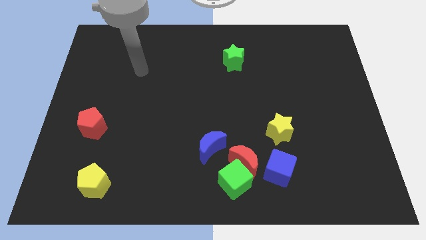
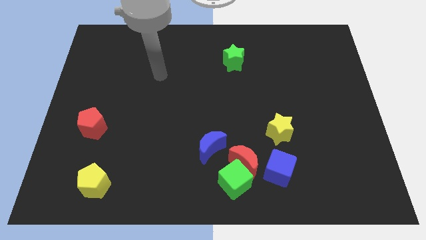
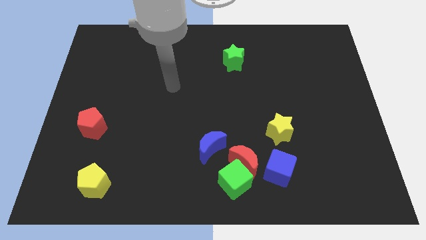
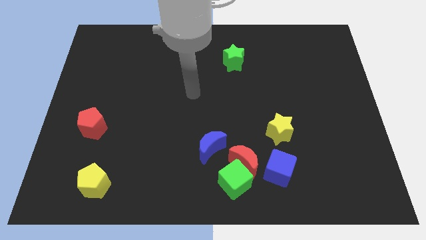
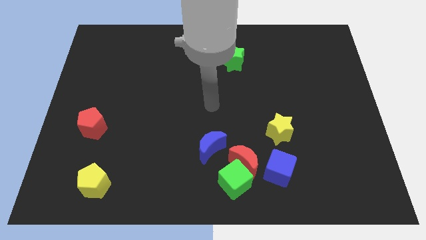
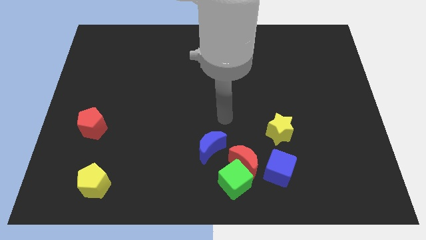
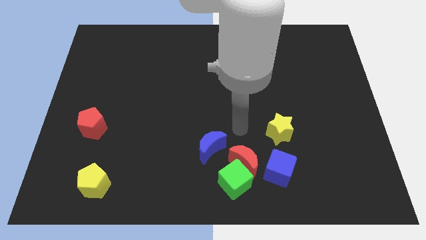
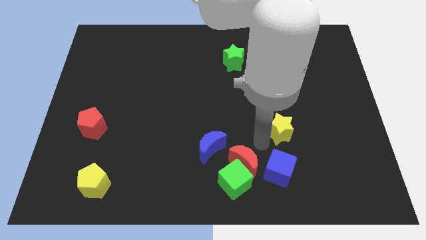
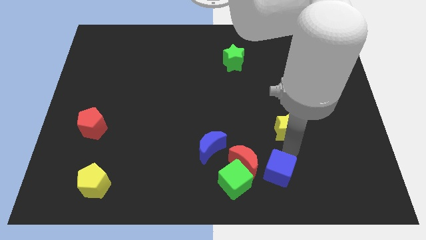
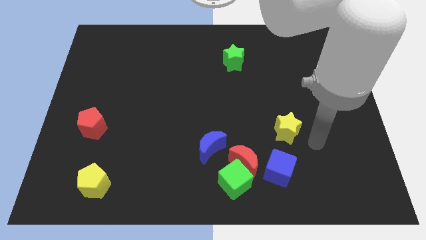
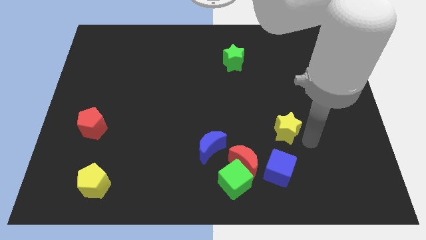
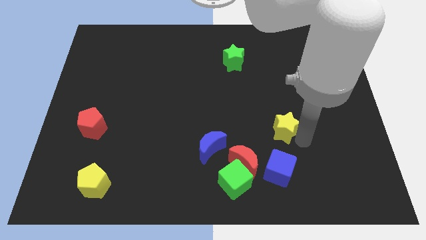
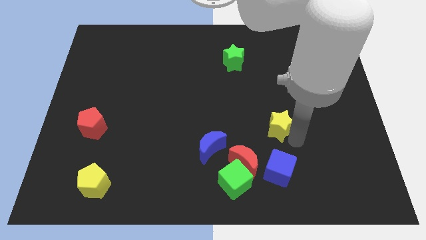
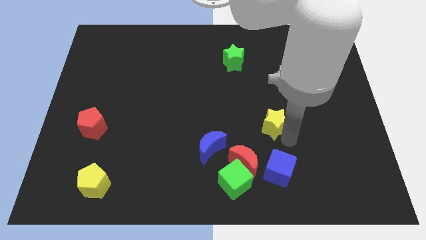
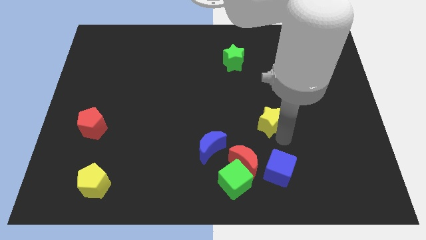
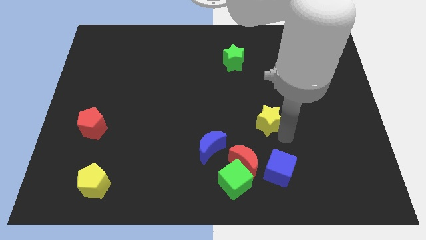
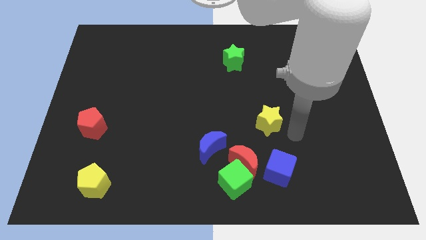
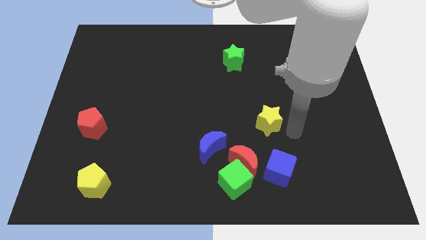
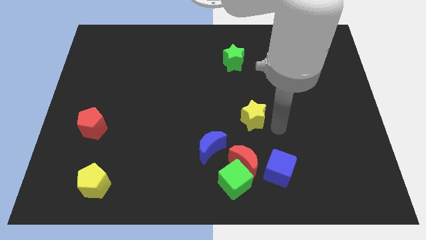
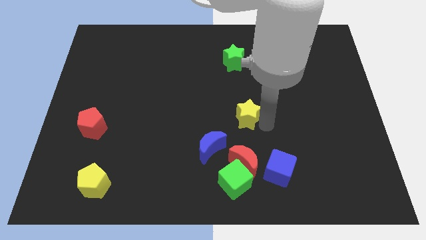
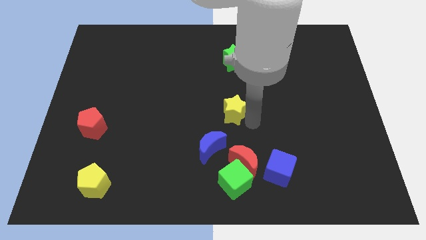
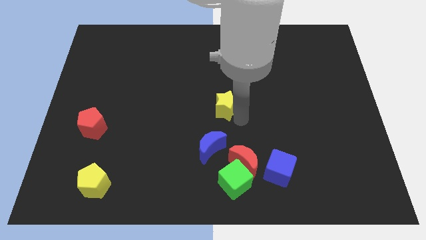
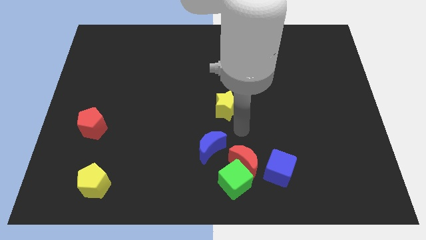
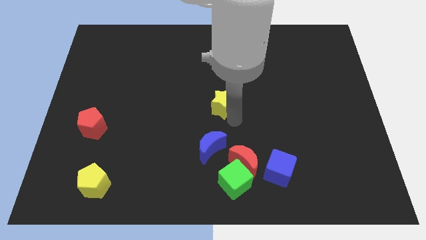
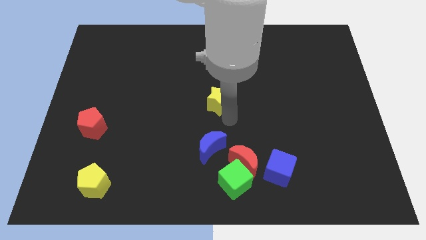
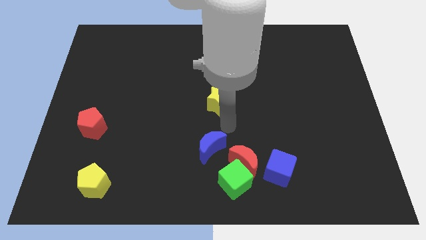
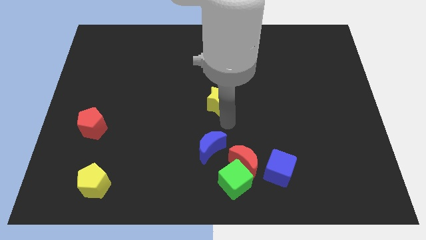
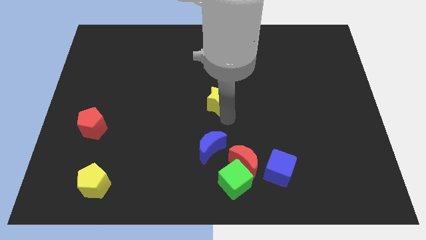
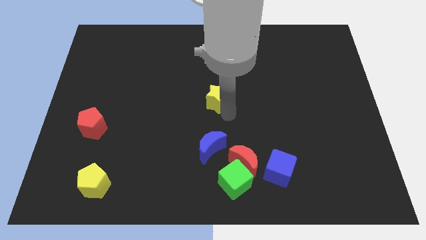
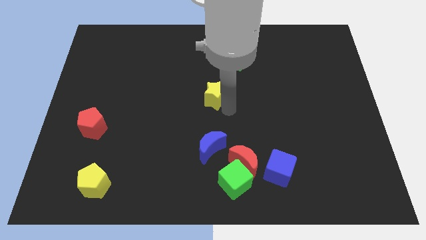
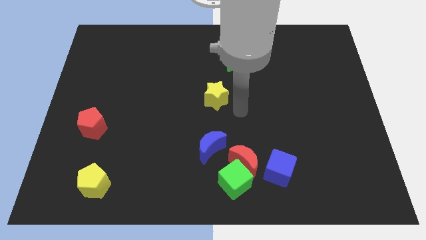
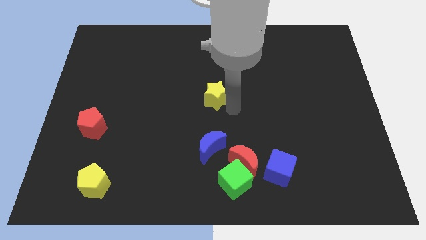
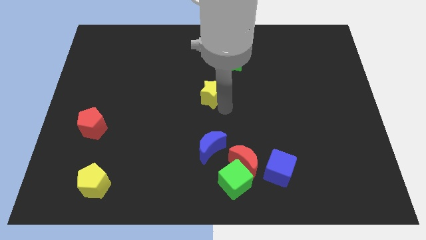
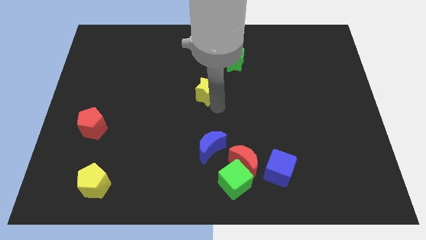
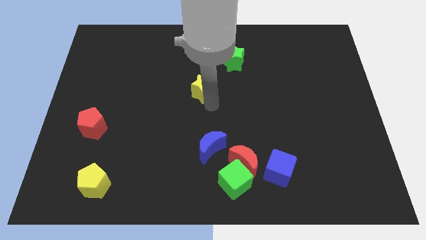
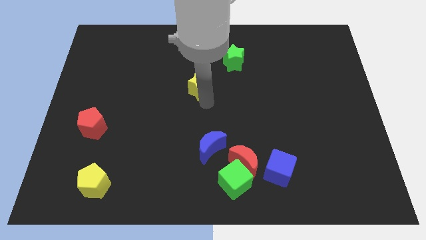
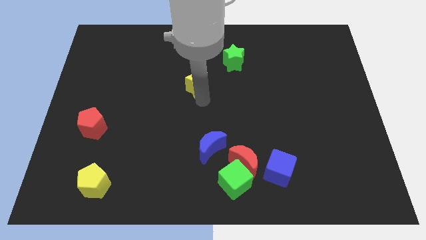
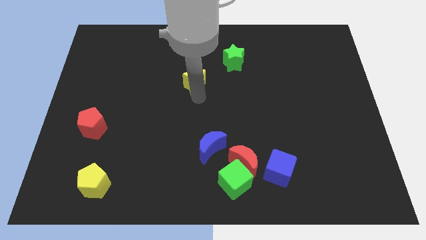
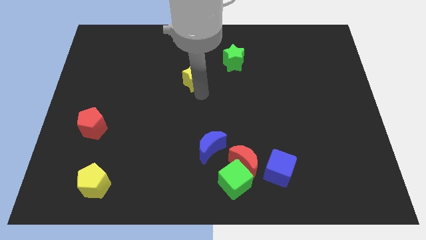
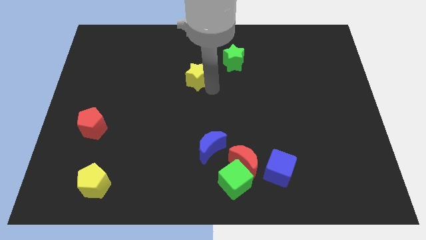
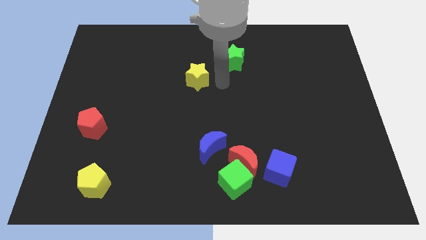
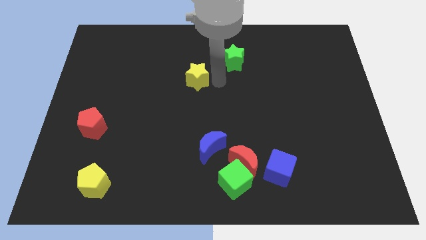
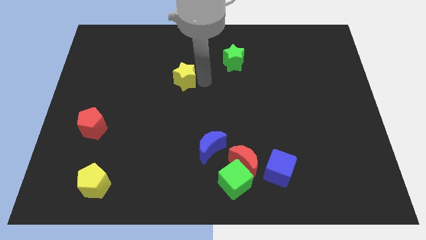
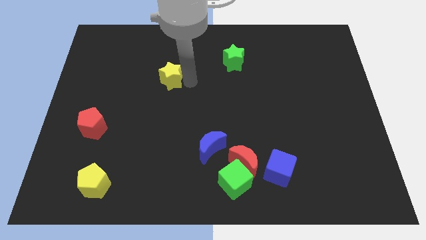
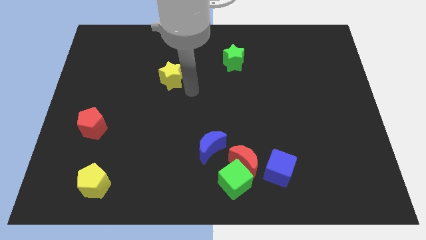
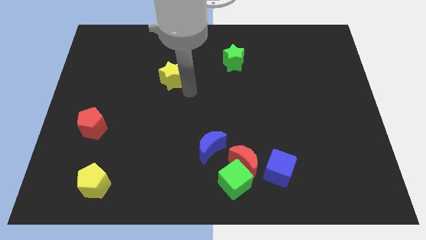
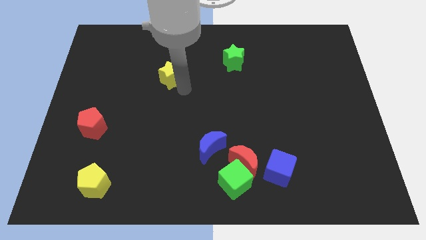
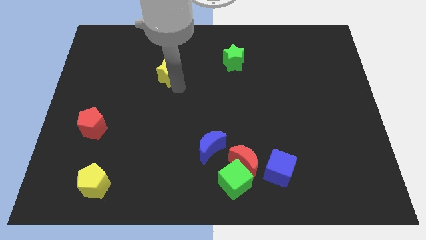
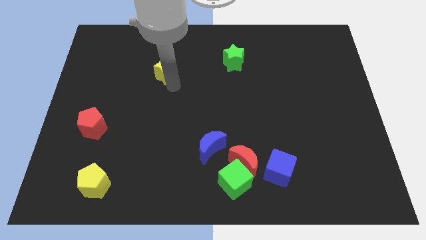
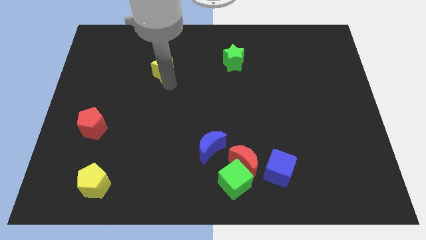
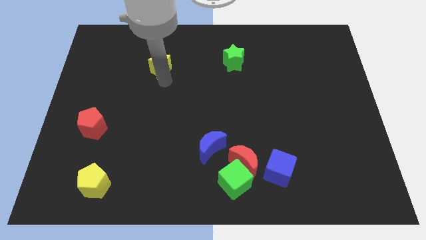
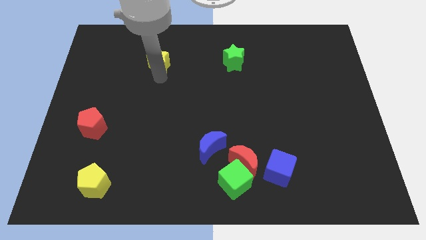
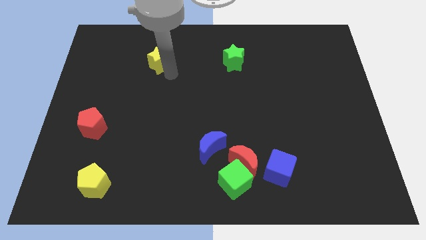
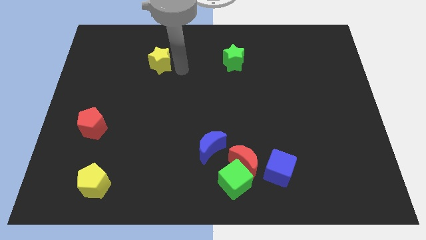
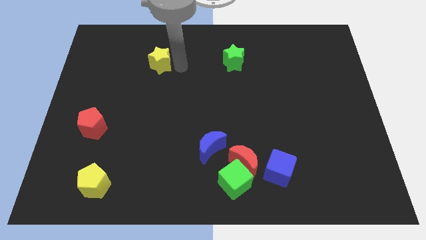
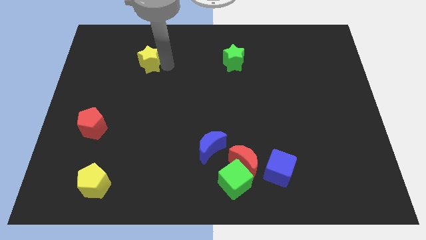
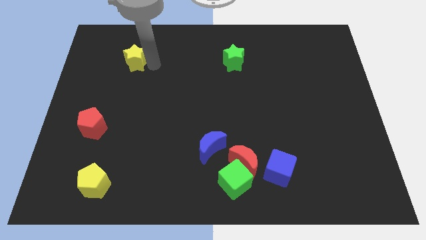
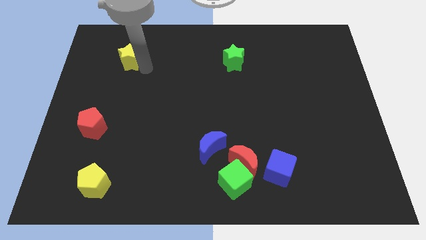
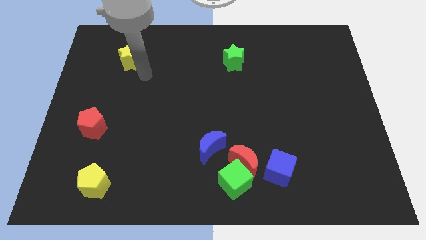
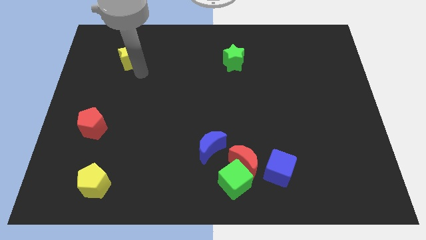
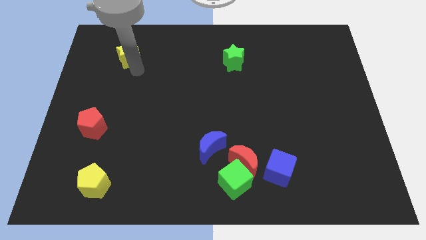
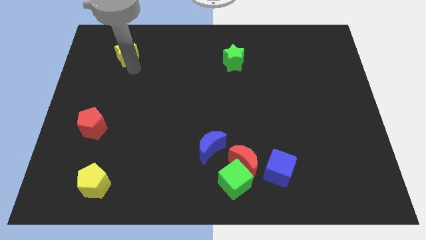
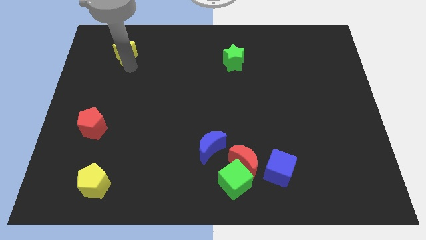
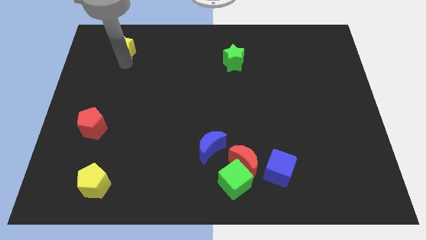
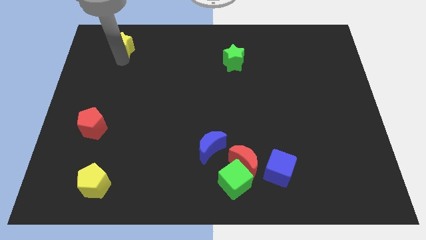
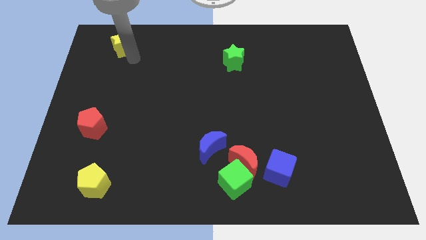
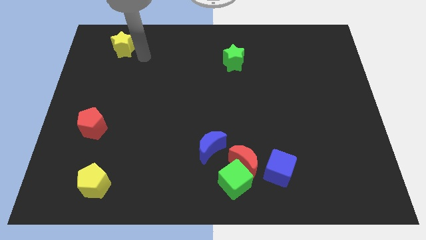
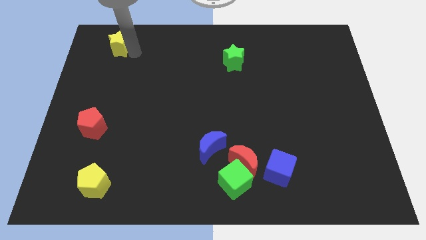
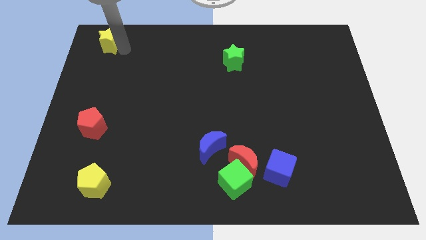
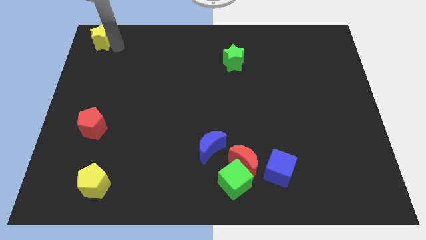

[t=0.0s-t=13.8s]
move the yellow star to the top left corner
